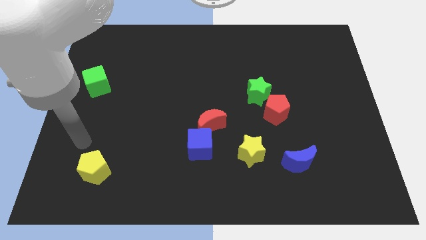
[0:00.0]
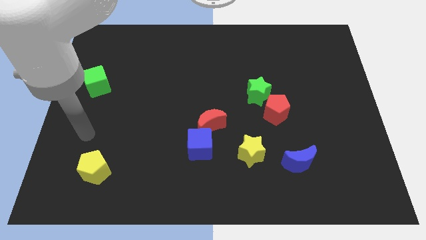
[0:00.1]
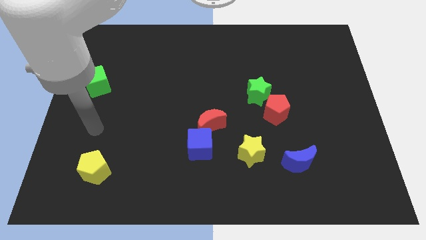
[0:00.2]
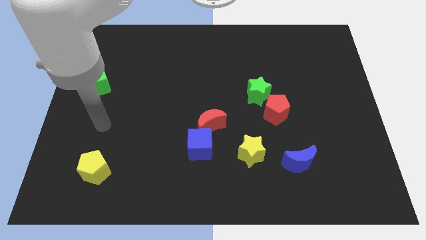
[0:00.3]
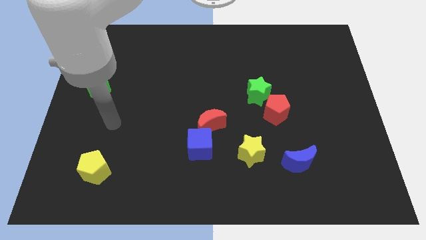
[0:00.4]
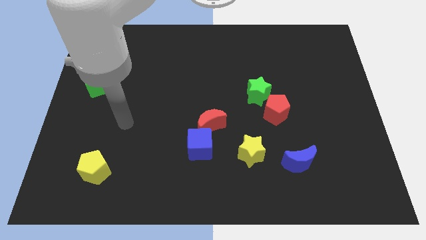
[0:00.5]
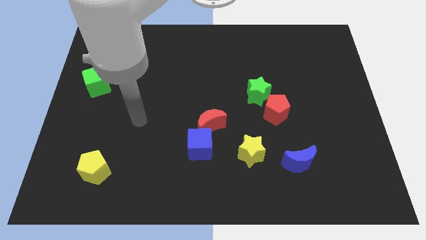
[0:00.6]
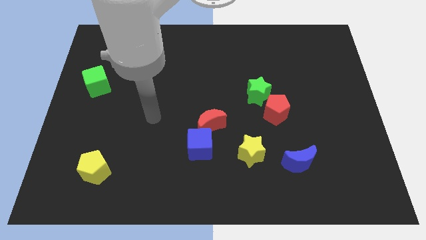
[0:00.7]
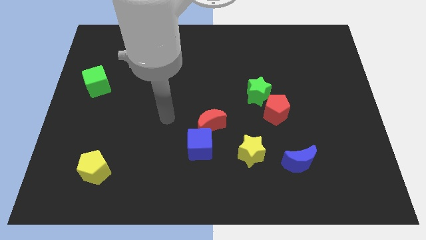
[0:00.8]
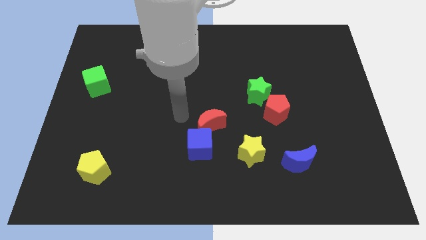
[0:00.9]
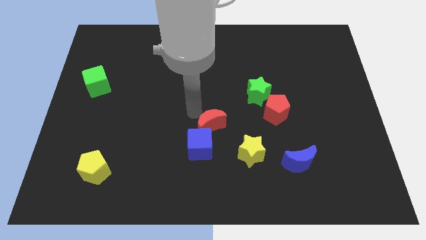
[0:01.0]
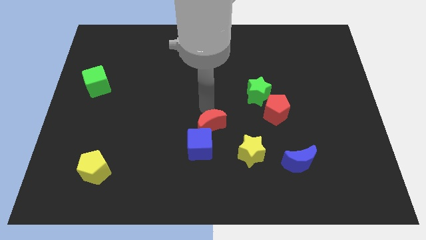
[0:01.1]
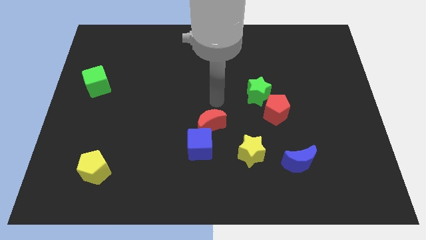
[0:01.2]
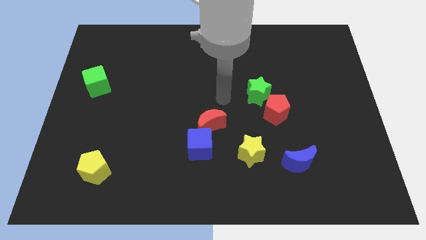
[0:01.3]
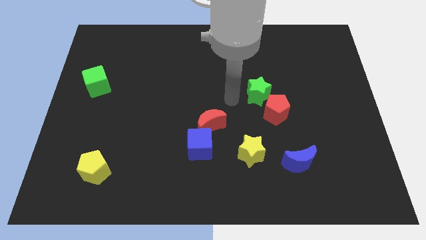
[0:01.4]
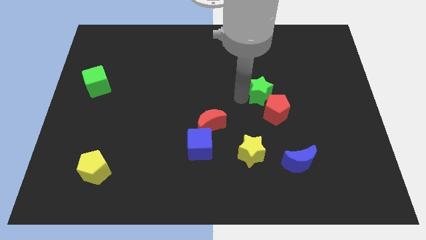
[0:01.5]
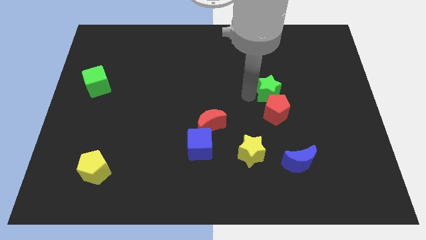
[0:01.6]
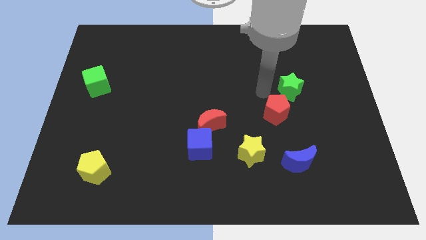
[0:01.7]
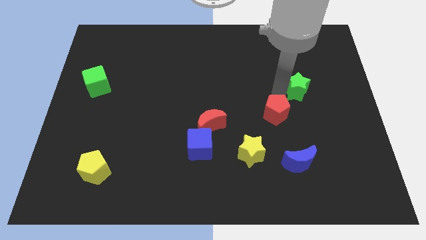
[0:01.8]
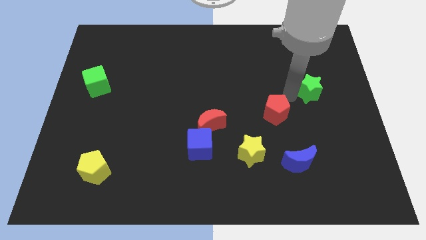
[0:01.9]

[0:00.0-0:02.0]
pull the red pentagon apart from the green star

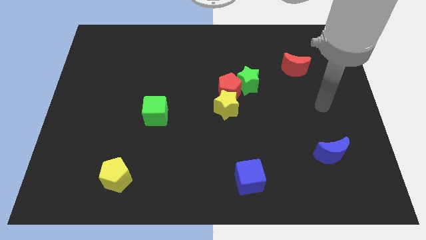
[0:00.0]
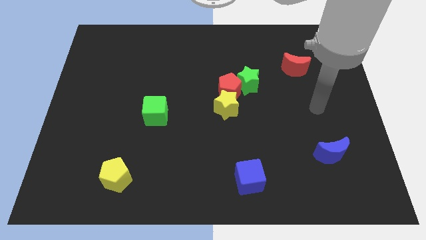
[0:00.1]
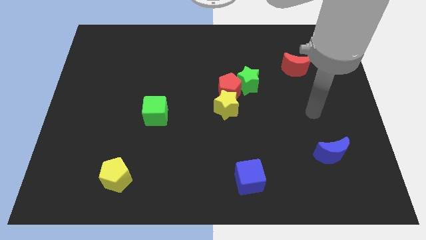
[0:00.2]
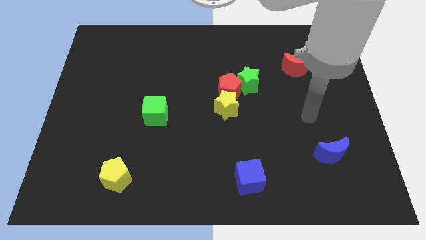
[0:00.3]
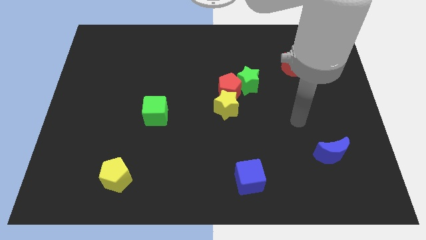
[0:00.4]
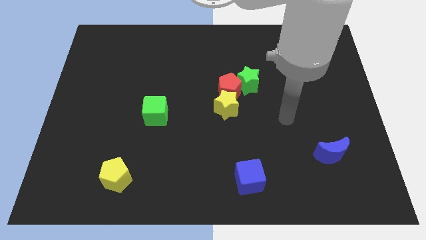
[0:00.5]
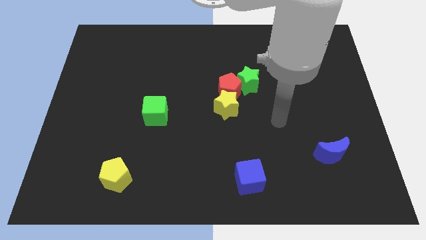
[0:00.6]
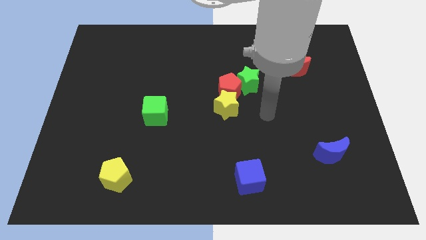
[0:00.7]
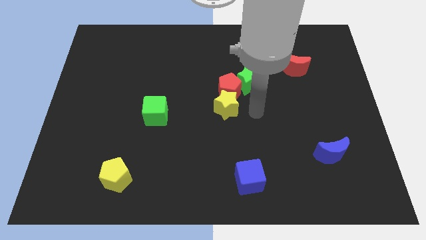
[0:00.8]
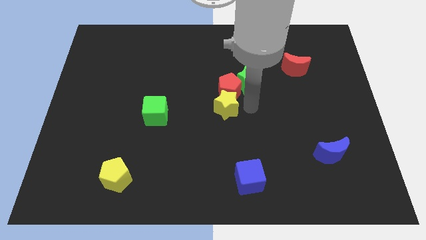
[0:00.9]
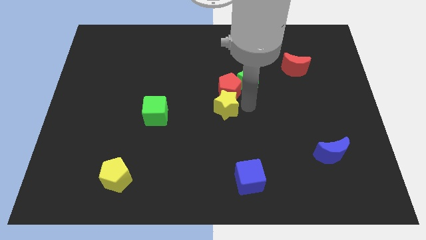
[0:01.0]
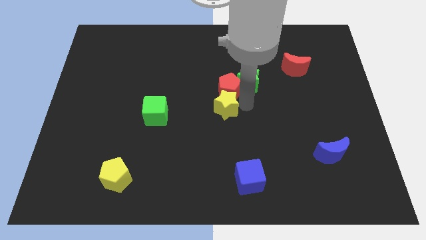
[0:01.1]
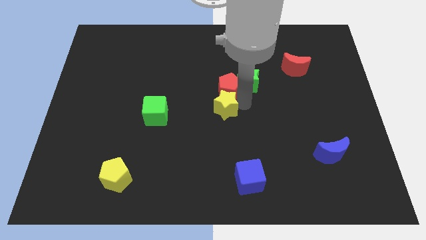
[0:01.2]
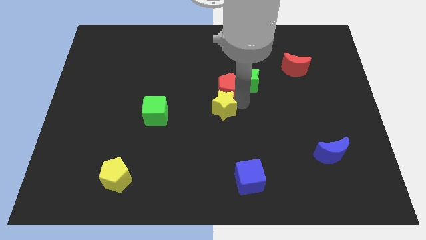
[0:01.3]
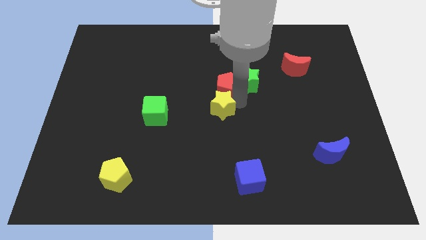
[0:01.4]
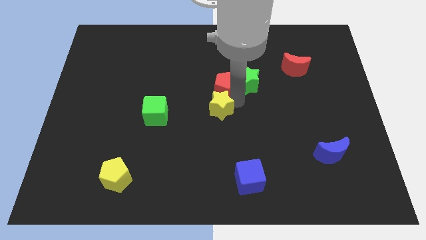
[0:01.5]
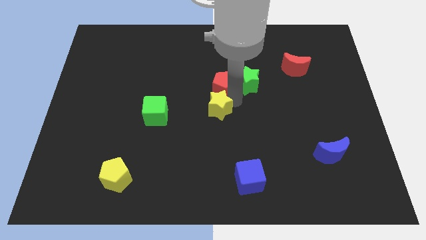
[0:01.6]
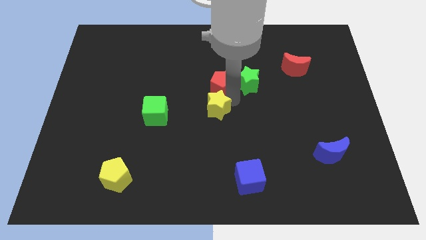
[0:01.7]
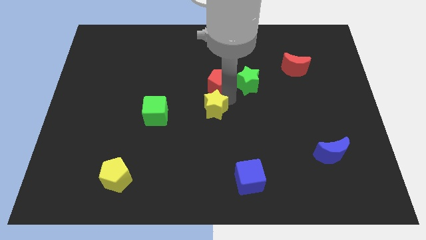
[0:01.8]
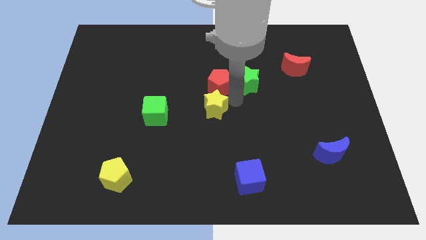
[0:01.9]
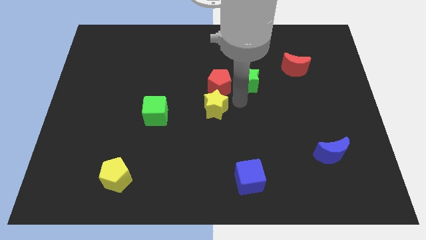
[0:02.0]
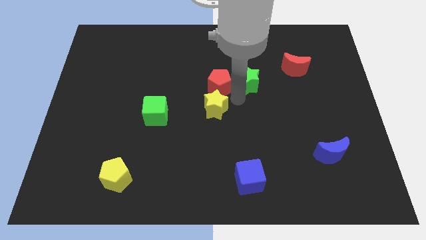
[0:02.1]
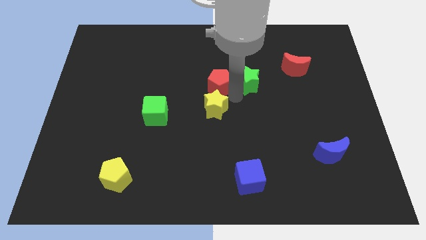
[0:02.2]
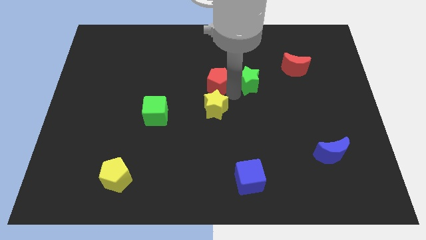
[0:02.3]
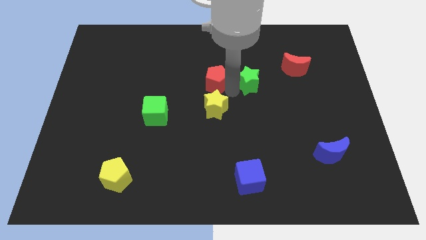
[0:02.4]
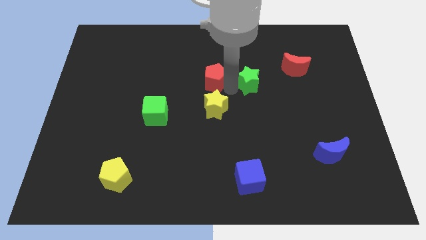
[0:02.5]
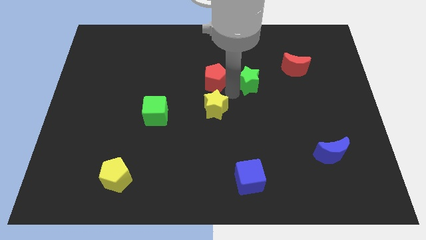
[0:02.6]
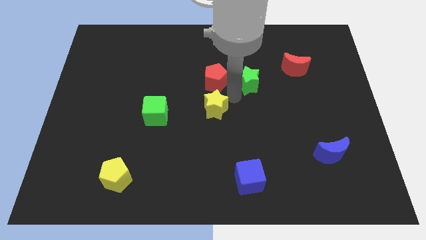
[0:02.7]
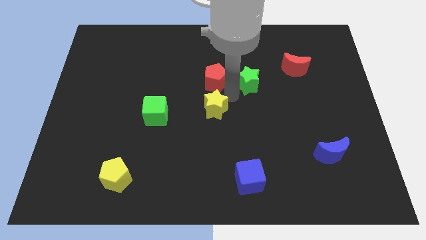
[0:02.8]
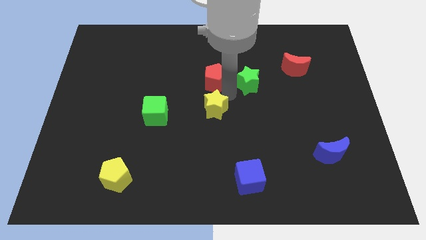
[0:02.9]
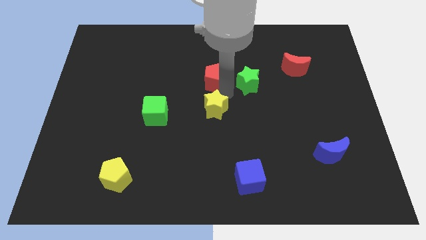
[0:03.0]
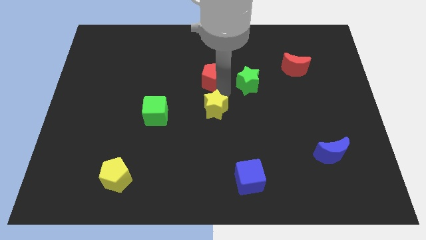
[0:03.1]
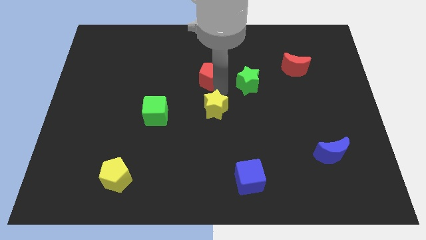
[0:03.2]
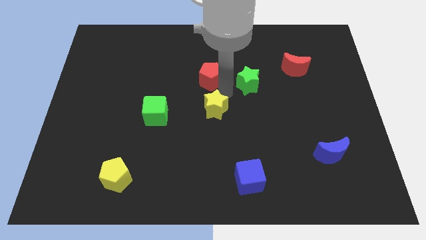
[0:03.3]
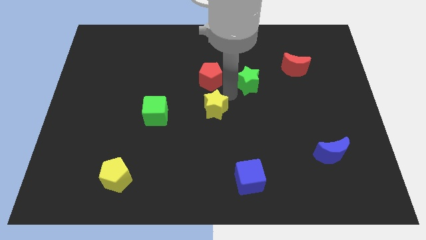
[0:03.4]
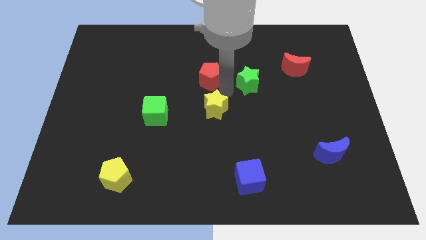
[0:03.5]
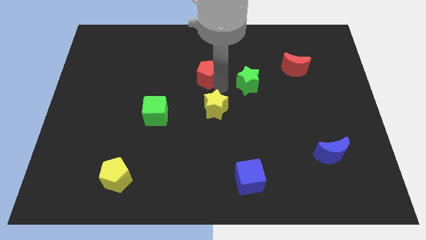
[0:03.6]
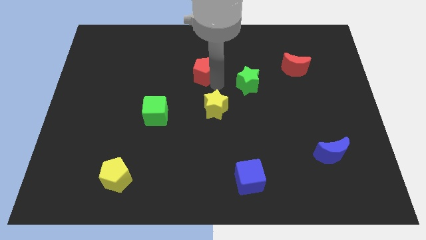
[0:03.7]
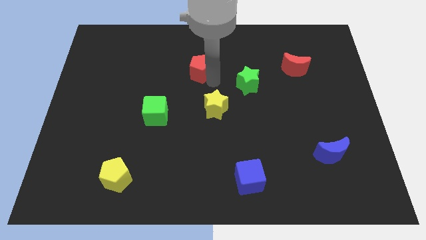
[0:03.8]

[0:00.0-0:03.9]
move the red pentagon away from the yellow star and green star

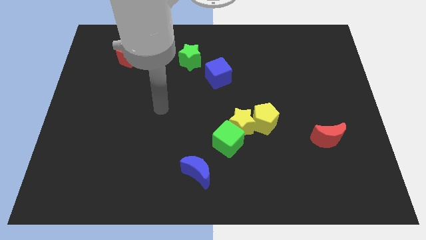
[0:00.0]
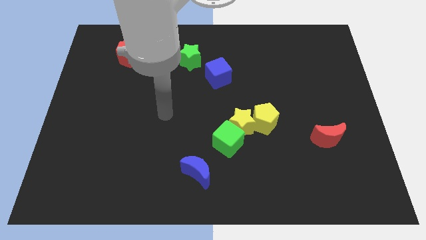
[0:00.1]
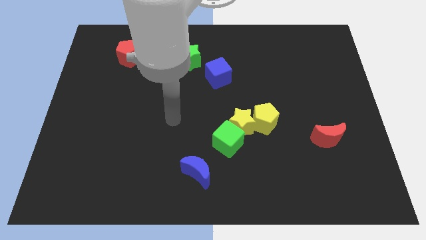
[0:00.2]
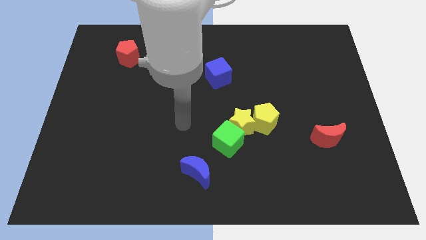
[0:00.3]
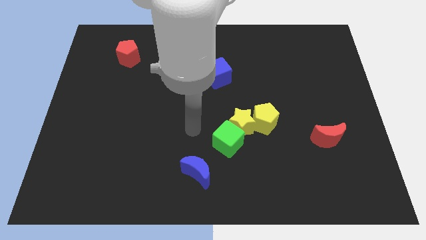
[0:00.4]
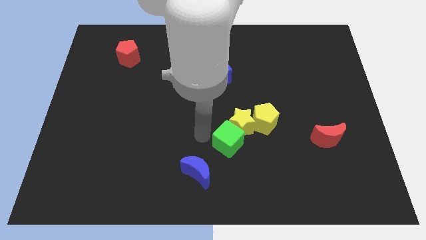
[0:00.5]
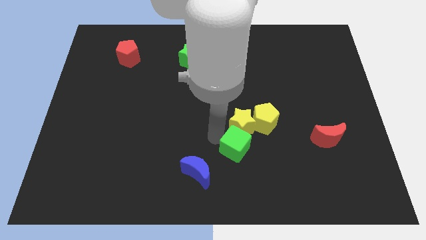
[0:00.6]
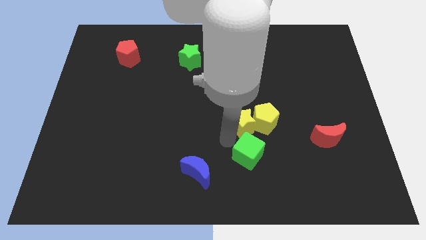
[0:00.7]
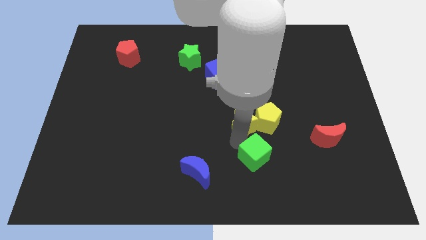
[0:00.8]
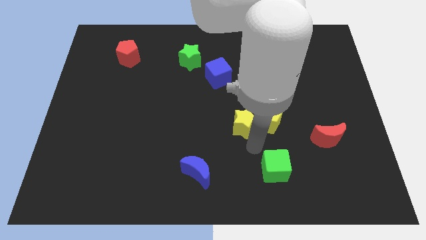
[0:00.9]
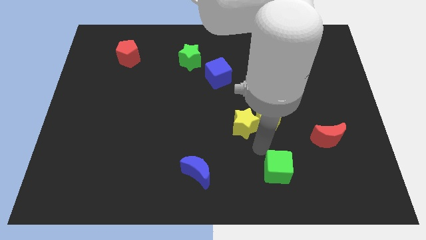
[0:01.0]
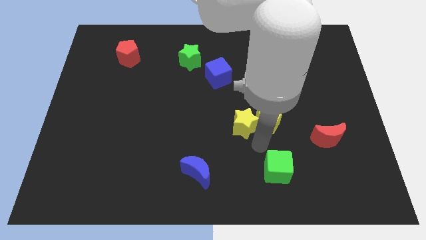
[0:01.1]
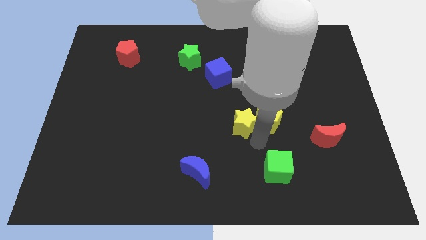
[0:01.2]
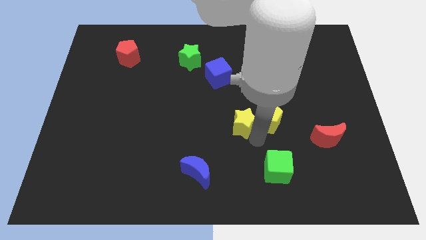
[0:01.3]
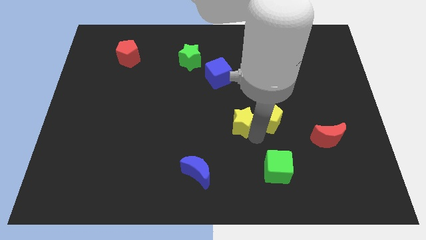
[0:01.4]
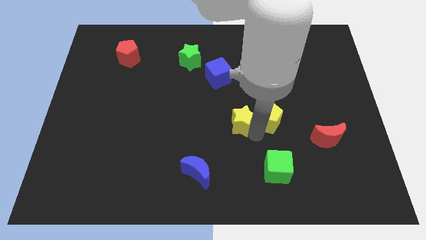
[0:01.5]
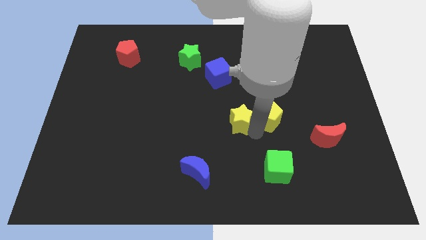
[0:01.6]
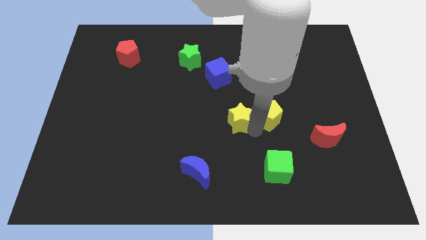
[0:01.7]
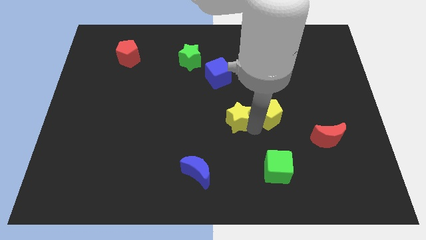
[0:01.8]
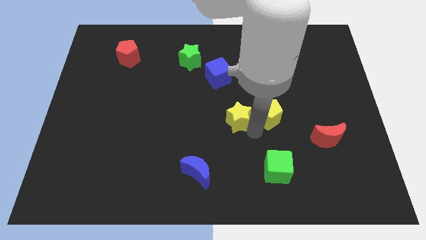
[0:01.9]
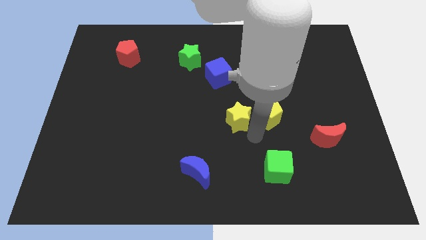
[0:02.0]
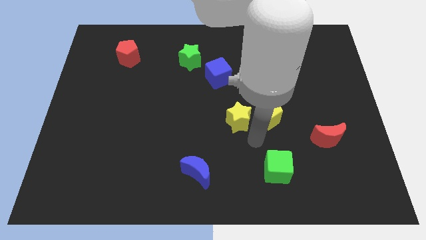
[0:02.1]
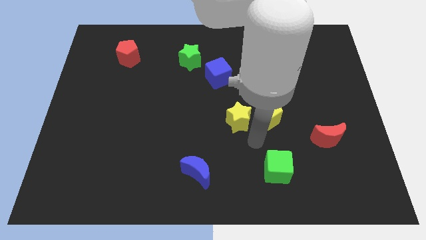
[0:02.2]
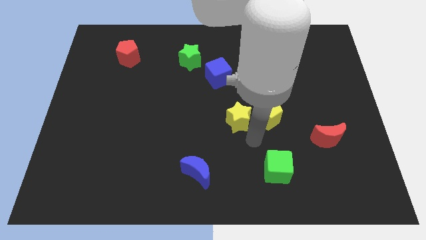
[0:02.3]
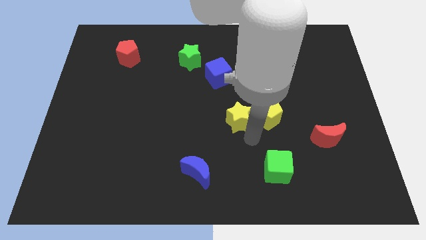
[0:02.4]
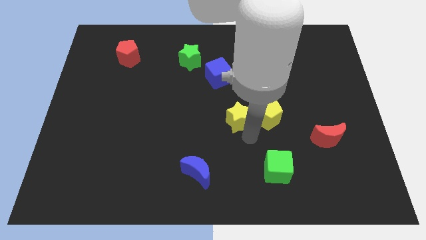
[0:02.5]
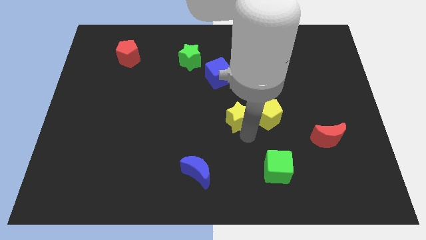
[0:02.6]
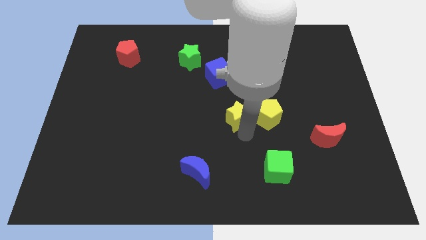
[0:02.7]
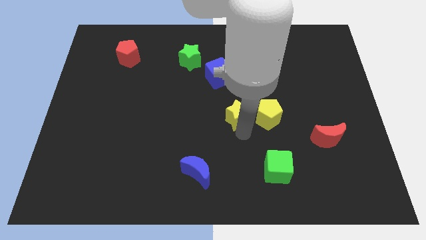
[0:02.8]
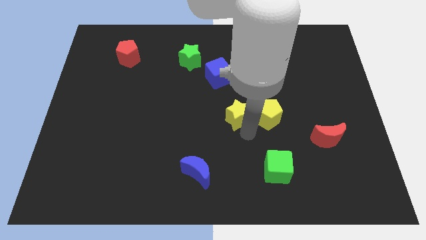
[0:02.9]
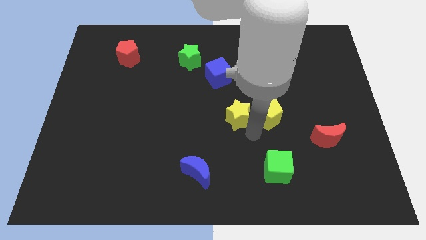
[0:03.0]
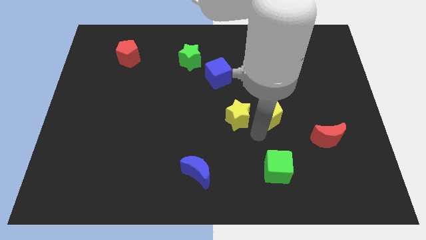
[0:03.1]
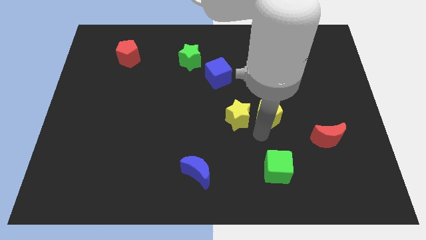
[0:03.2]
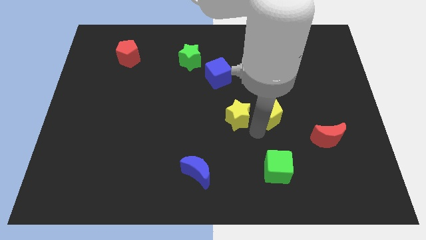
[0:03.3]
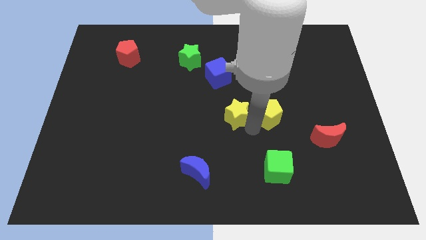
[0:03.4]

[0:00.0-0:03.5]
pull the yellow star apart from the green cube and yellow pentagon
